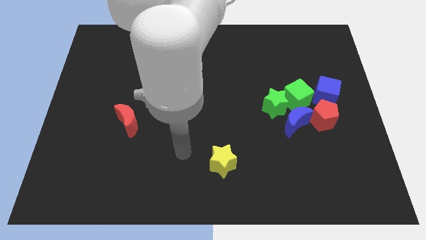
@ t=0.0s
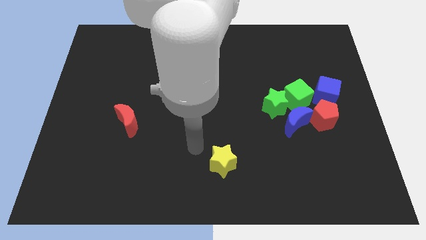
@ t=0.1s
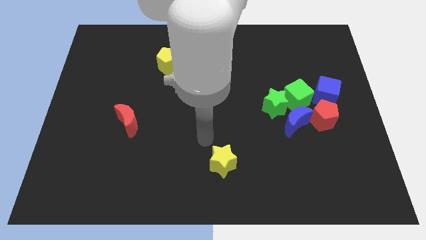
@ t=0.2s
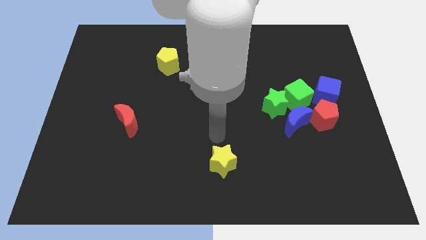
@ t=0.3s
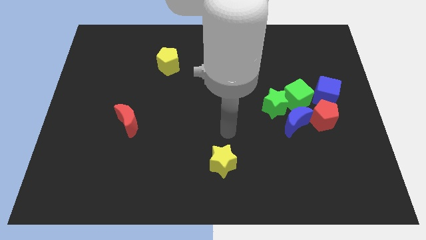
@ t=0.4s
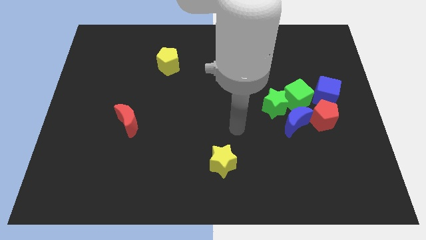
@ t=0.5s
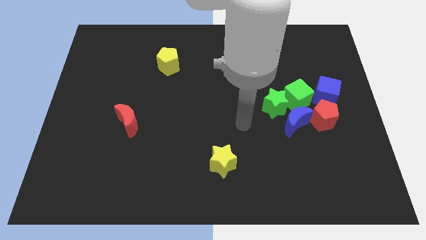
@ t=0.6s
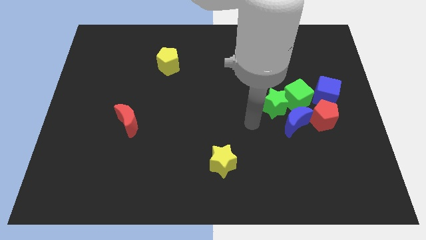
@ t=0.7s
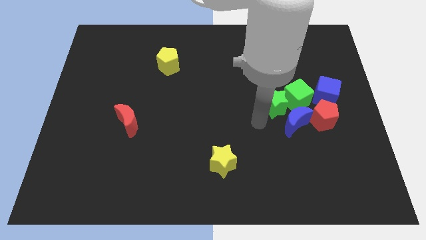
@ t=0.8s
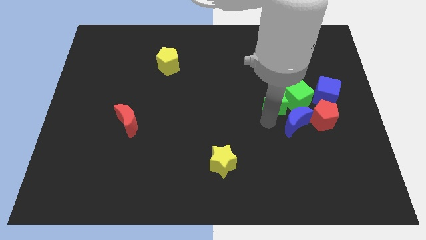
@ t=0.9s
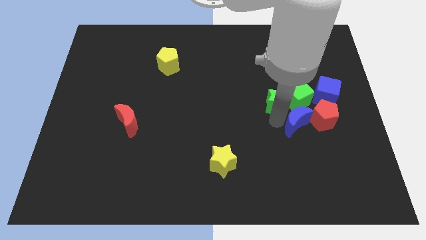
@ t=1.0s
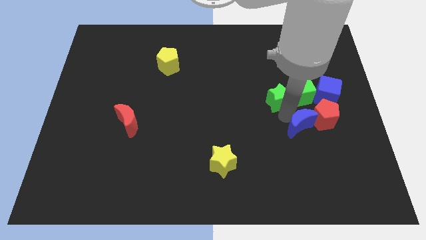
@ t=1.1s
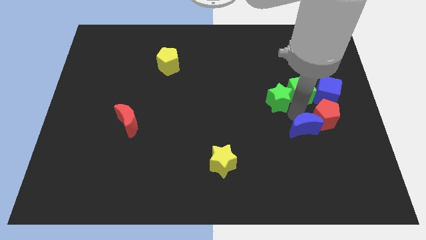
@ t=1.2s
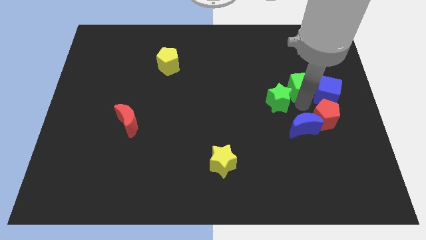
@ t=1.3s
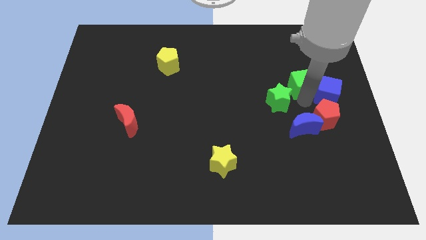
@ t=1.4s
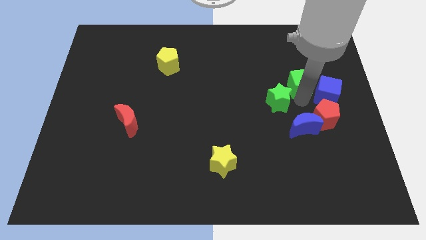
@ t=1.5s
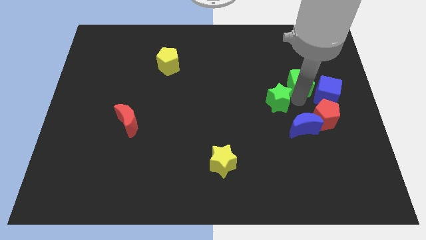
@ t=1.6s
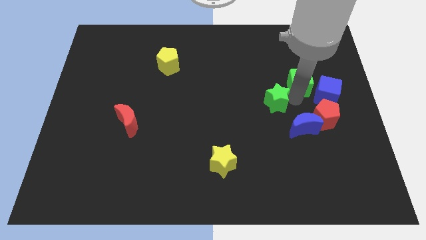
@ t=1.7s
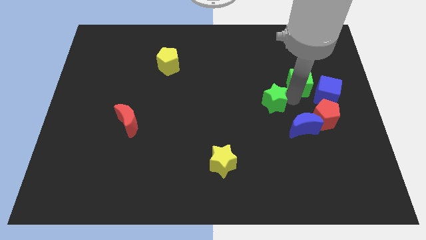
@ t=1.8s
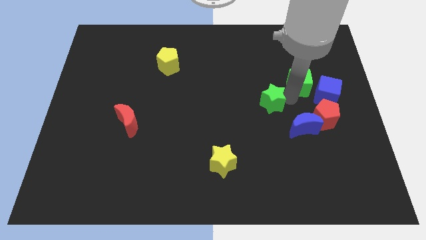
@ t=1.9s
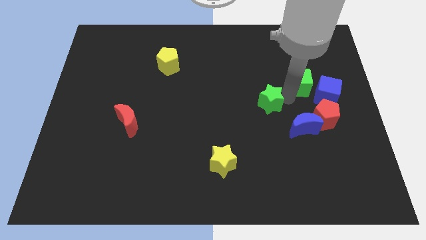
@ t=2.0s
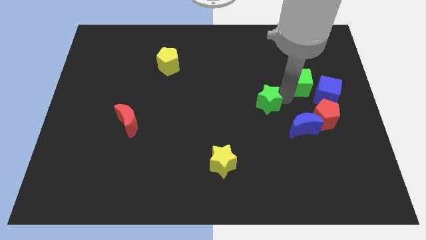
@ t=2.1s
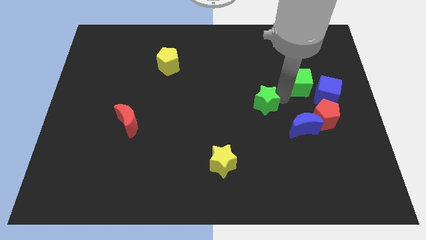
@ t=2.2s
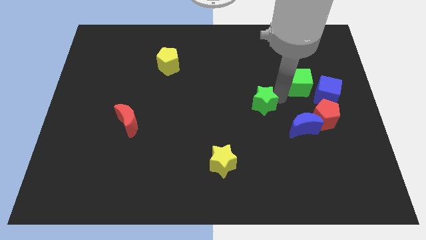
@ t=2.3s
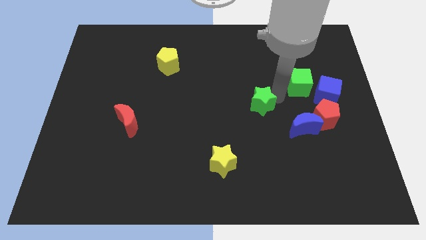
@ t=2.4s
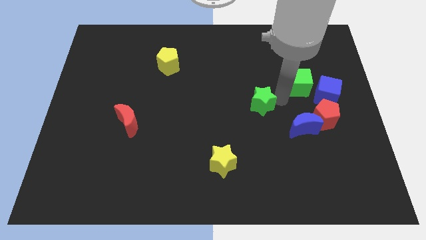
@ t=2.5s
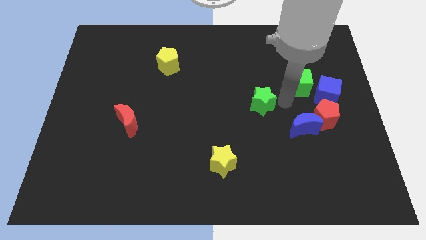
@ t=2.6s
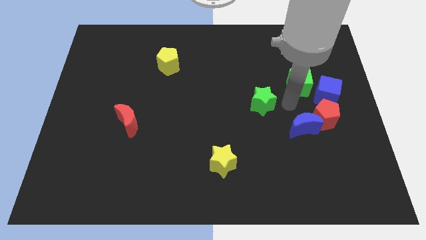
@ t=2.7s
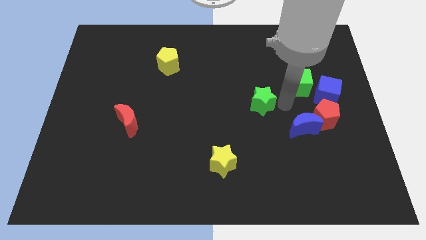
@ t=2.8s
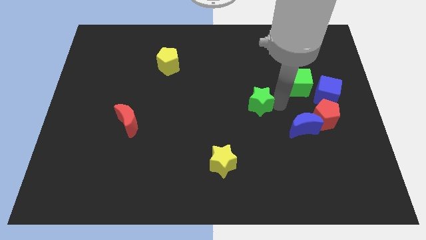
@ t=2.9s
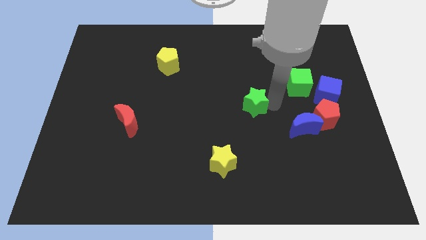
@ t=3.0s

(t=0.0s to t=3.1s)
separate the green star from the green cube and blue moon

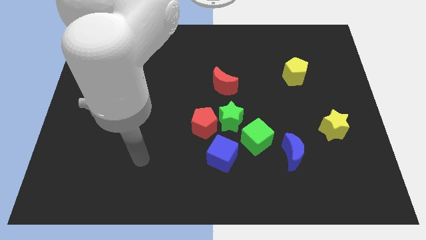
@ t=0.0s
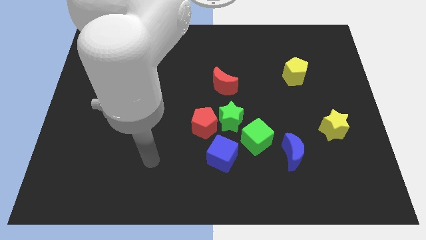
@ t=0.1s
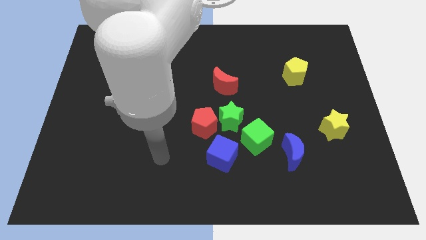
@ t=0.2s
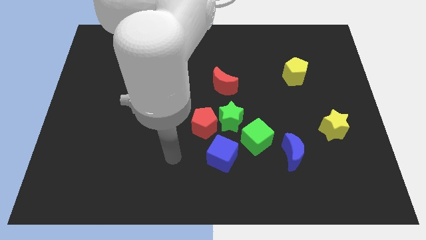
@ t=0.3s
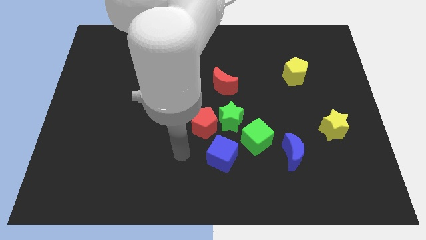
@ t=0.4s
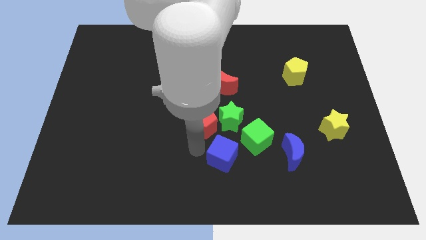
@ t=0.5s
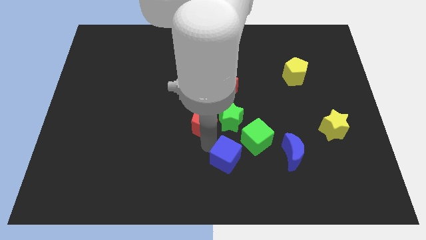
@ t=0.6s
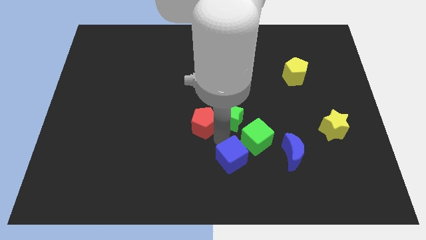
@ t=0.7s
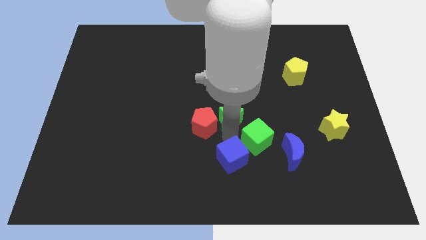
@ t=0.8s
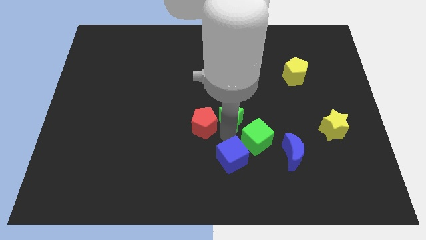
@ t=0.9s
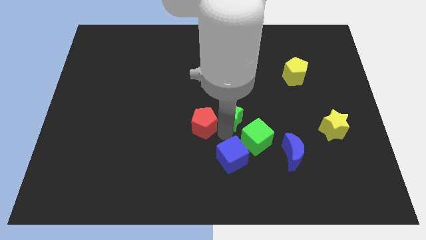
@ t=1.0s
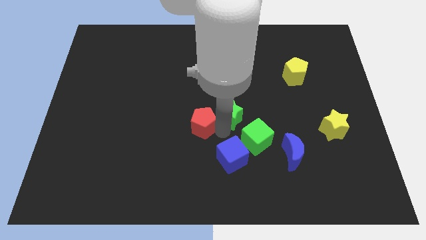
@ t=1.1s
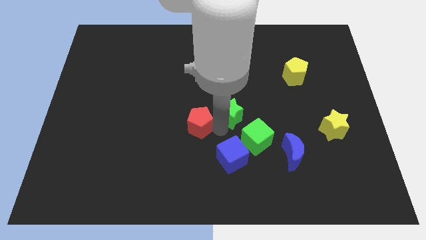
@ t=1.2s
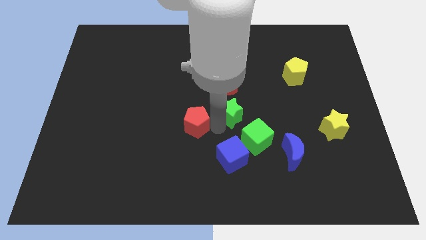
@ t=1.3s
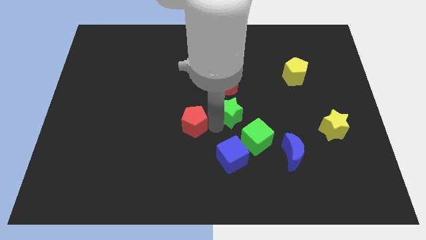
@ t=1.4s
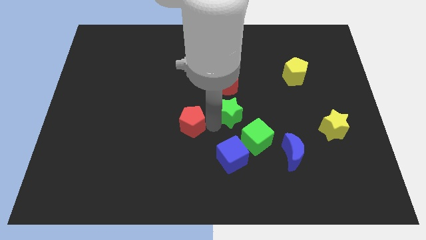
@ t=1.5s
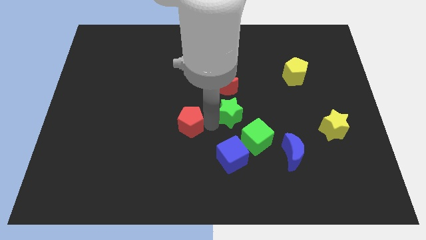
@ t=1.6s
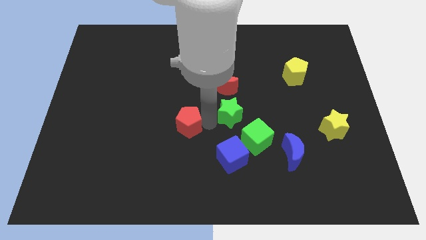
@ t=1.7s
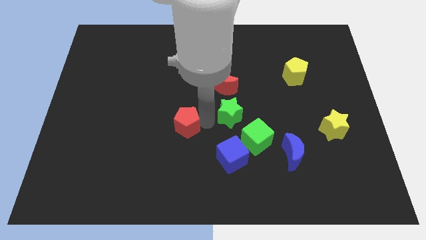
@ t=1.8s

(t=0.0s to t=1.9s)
pull the red pentagon apart from the green star and blue cube

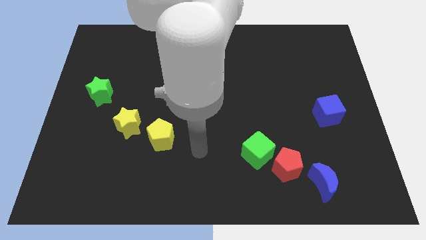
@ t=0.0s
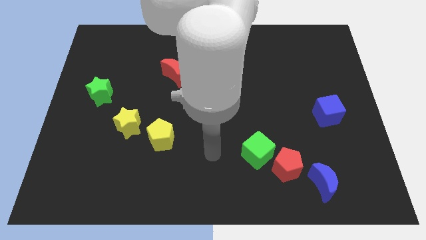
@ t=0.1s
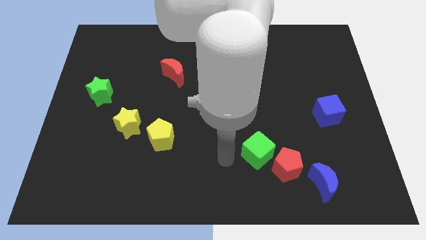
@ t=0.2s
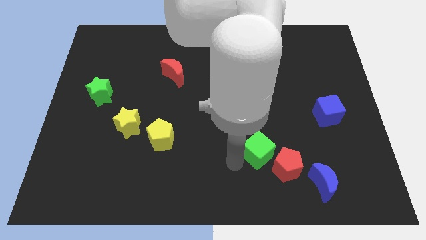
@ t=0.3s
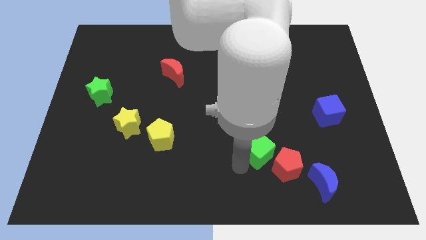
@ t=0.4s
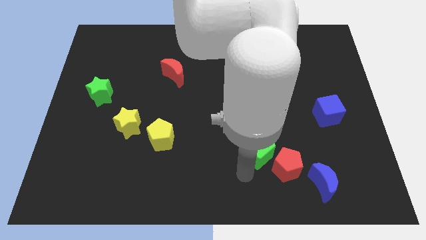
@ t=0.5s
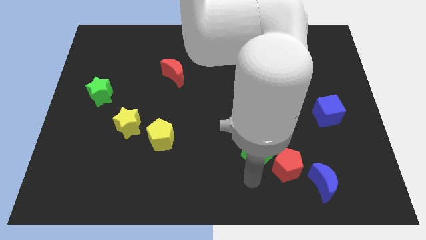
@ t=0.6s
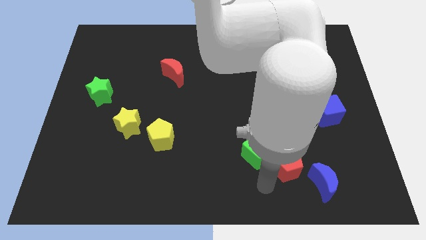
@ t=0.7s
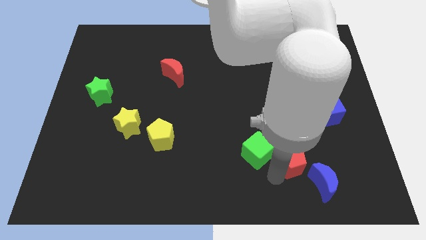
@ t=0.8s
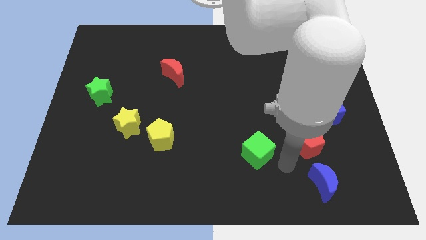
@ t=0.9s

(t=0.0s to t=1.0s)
separate the green cube from the red pentagon

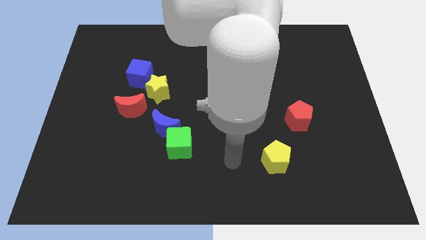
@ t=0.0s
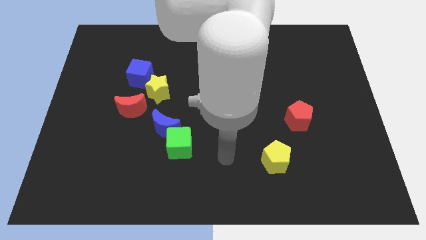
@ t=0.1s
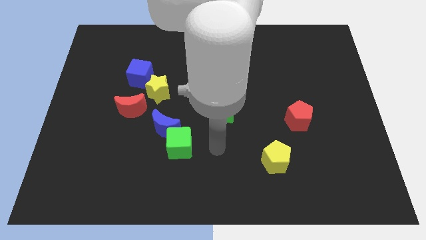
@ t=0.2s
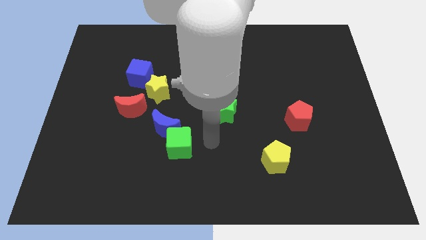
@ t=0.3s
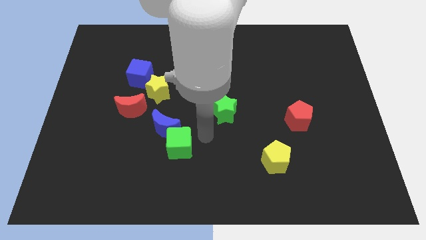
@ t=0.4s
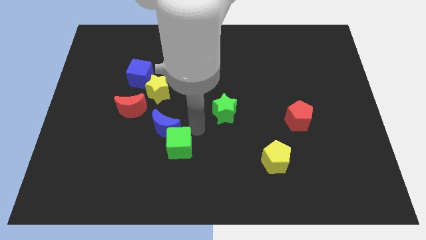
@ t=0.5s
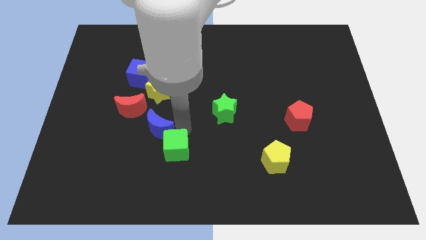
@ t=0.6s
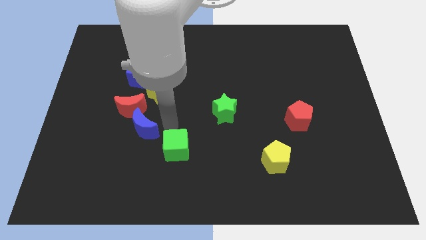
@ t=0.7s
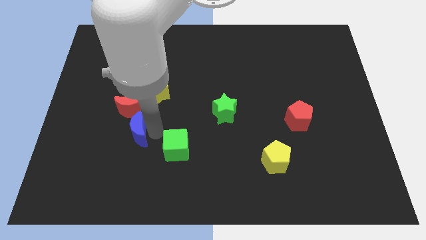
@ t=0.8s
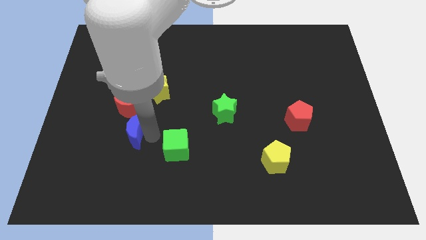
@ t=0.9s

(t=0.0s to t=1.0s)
separate the green cube from the blue moon

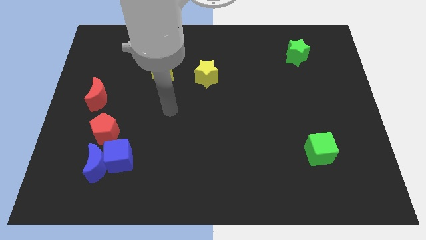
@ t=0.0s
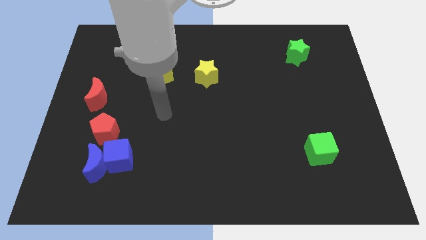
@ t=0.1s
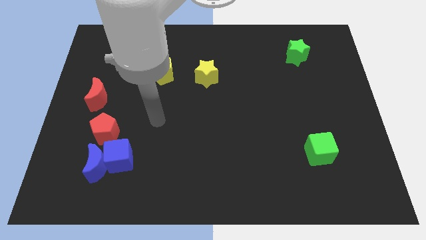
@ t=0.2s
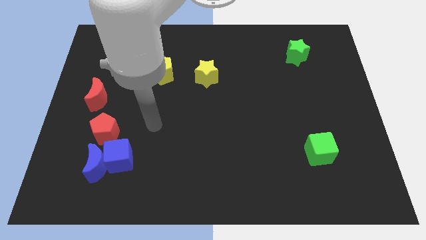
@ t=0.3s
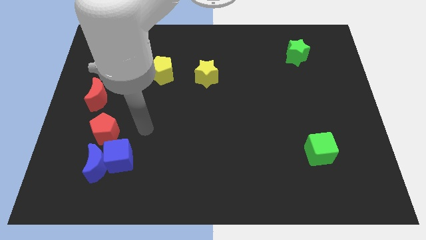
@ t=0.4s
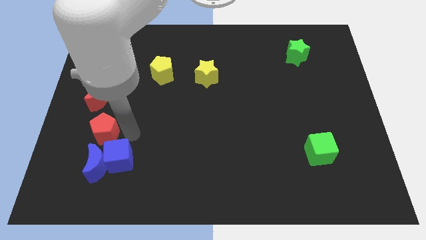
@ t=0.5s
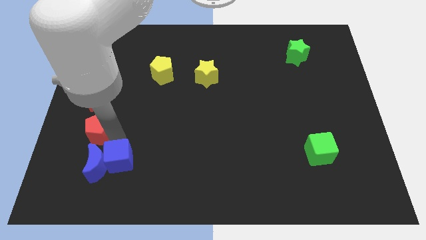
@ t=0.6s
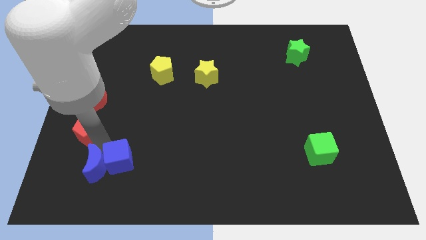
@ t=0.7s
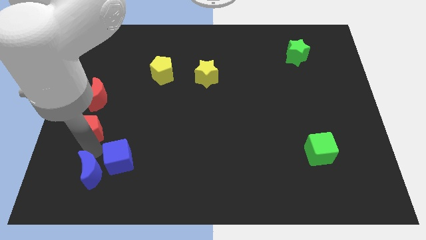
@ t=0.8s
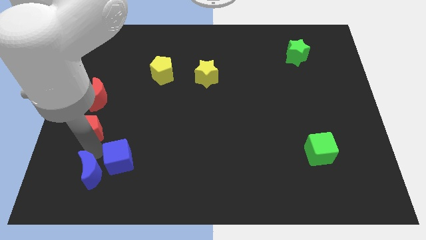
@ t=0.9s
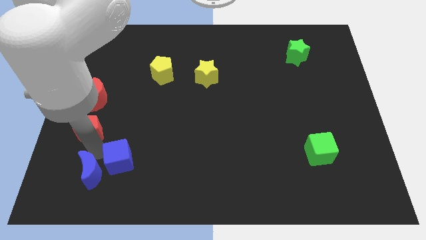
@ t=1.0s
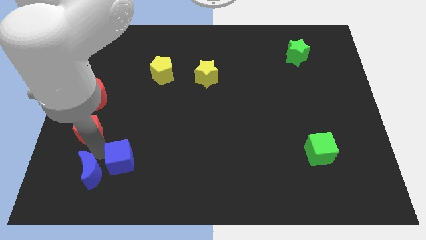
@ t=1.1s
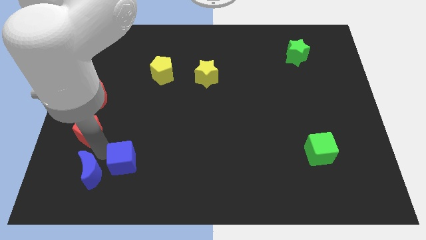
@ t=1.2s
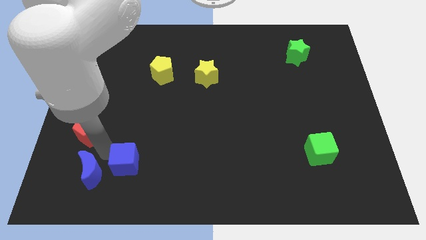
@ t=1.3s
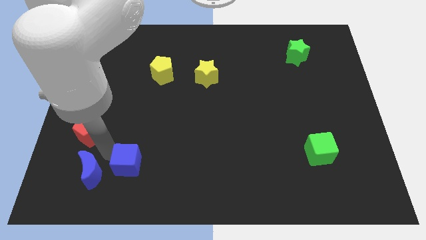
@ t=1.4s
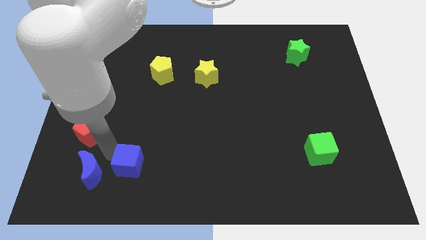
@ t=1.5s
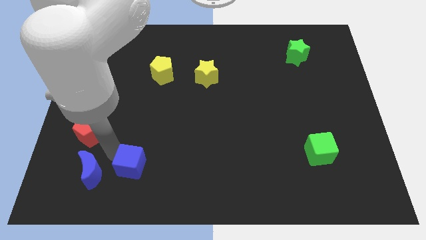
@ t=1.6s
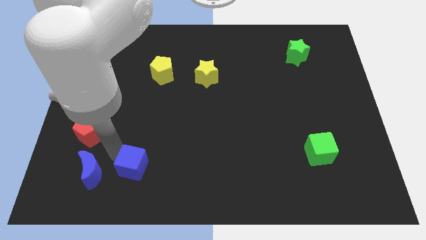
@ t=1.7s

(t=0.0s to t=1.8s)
move the blue cube away from the blue moon and red pentagon

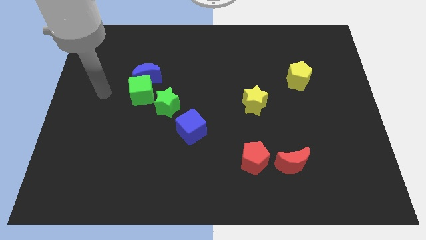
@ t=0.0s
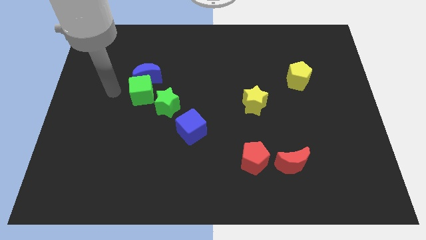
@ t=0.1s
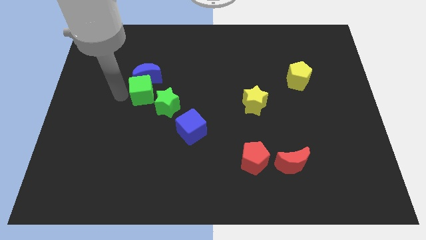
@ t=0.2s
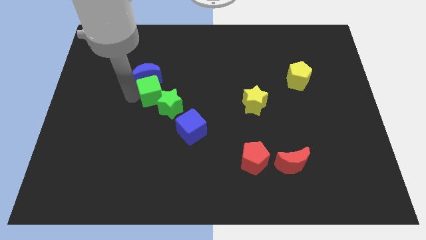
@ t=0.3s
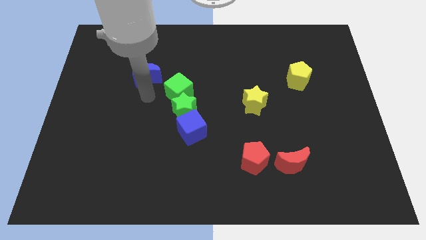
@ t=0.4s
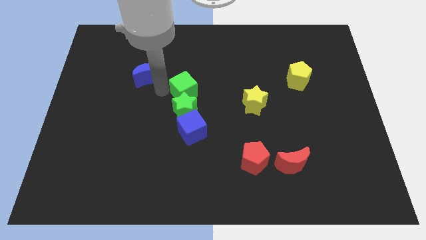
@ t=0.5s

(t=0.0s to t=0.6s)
pull the blue moon apart from the green cube
